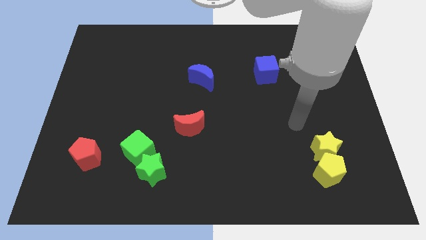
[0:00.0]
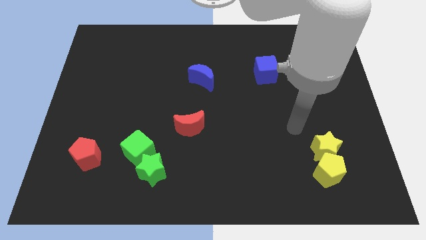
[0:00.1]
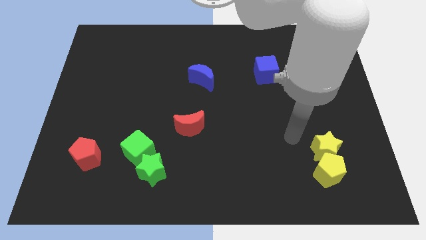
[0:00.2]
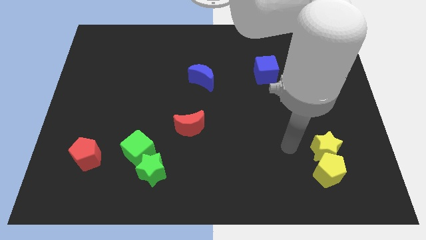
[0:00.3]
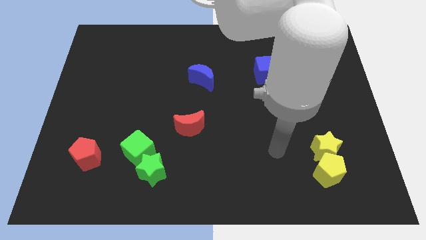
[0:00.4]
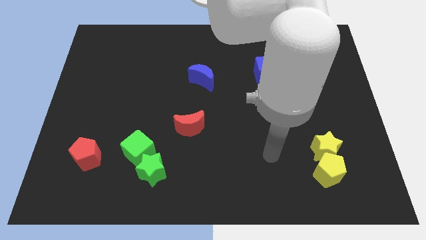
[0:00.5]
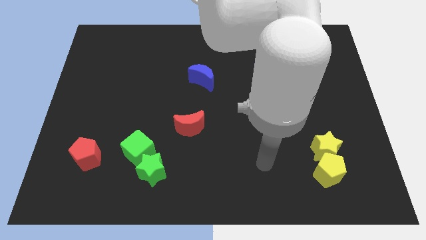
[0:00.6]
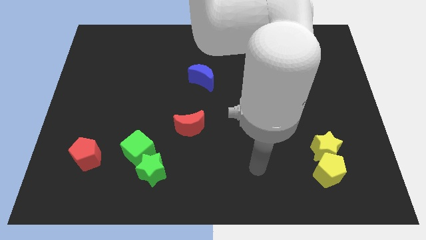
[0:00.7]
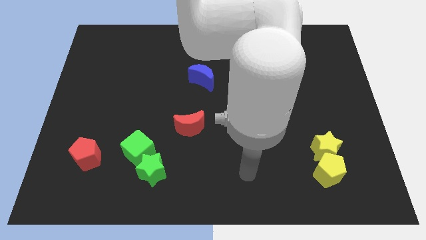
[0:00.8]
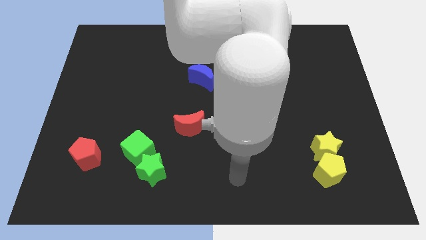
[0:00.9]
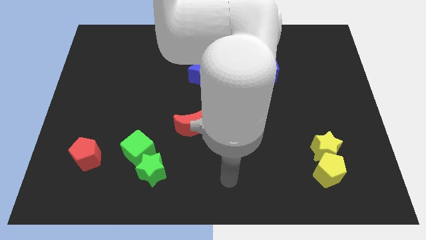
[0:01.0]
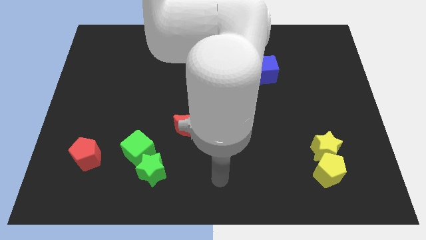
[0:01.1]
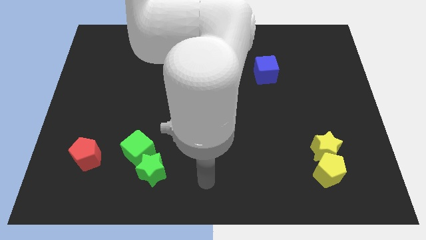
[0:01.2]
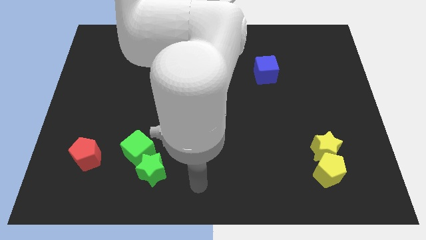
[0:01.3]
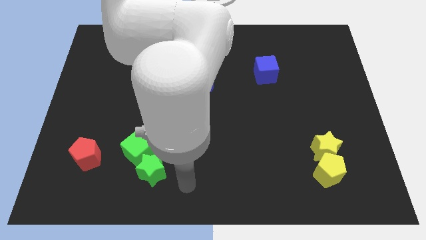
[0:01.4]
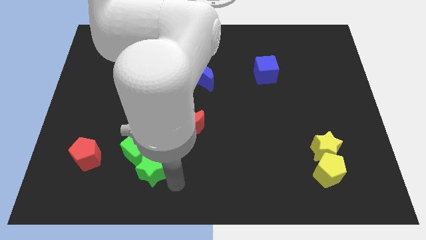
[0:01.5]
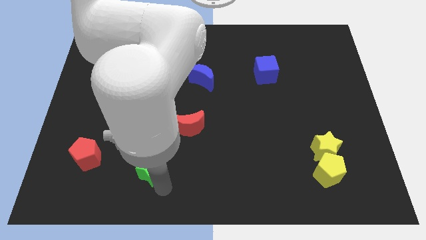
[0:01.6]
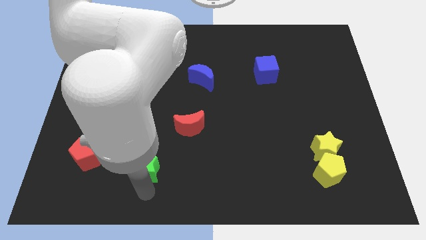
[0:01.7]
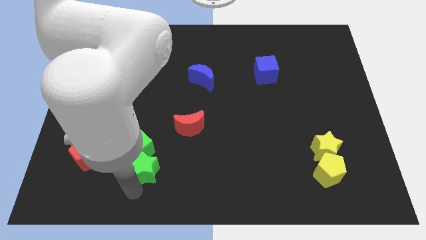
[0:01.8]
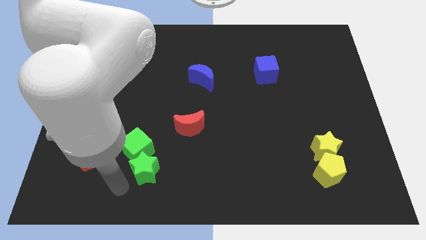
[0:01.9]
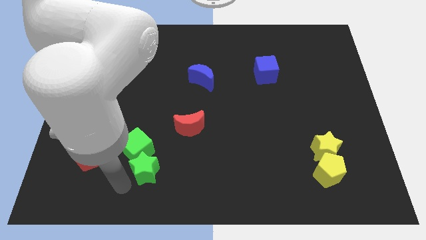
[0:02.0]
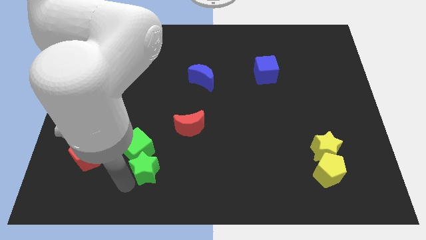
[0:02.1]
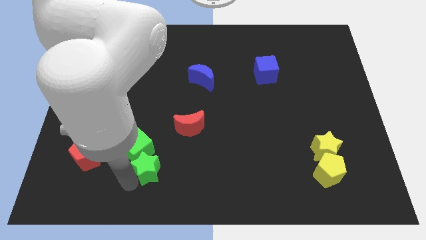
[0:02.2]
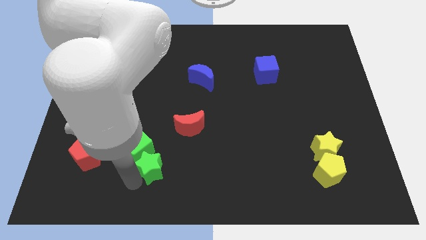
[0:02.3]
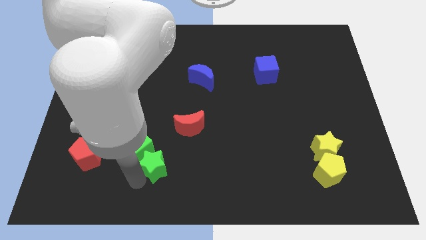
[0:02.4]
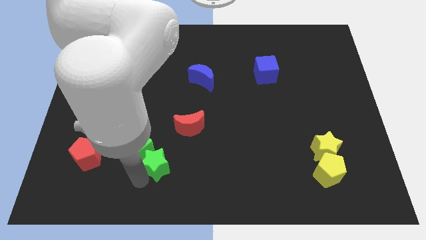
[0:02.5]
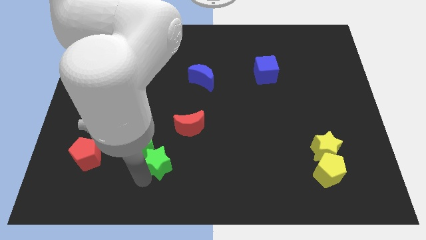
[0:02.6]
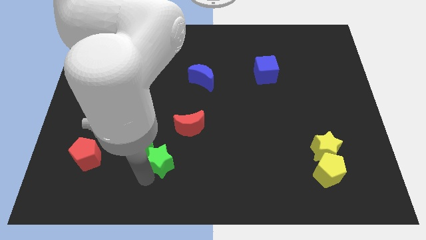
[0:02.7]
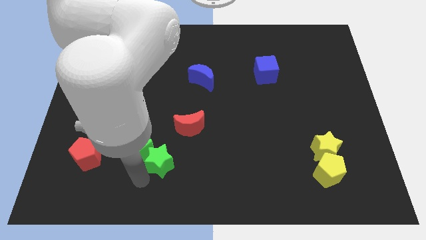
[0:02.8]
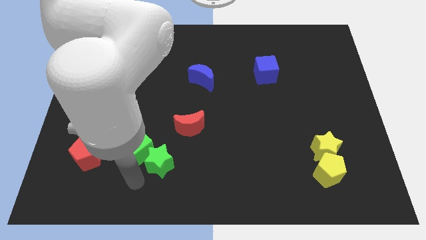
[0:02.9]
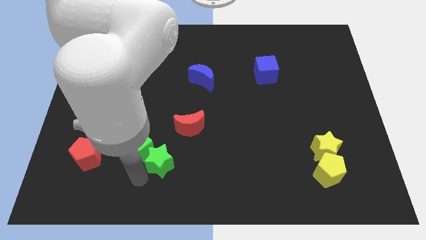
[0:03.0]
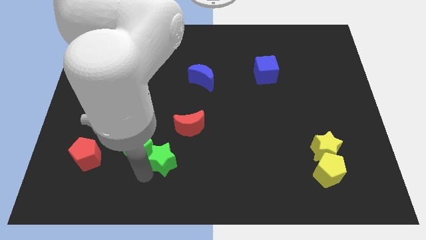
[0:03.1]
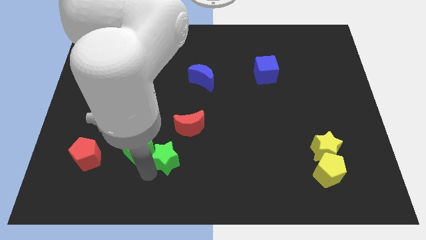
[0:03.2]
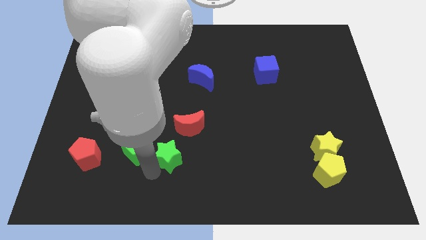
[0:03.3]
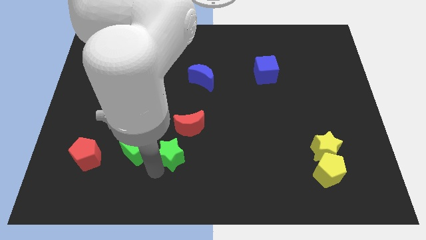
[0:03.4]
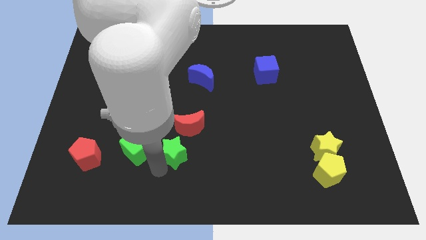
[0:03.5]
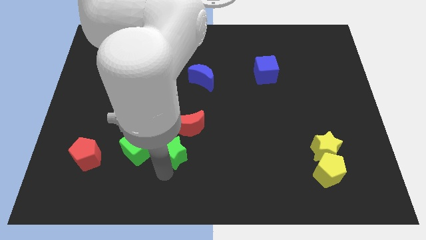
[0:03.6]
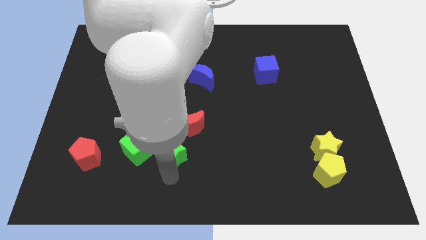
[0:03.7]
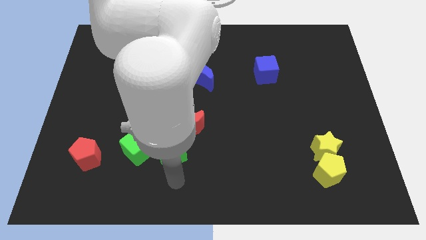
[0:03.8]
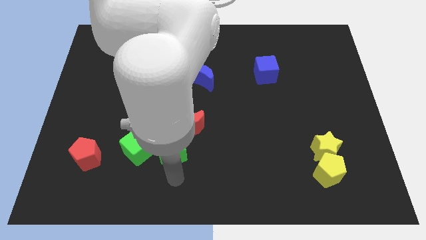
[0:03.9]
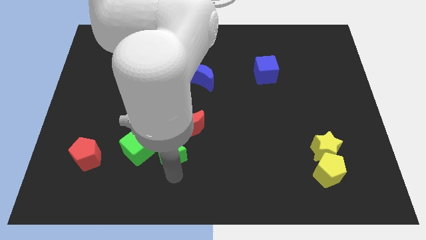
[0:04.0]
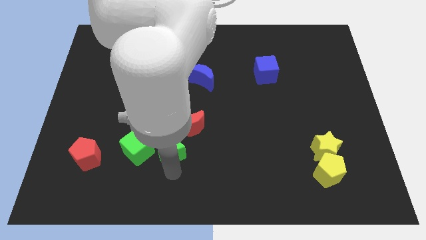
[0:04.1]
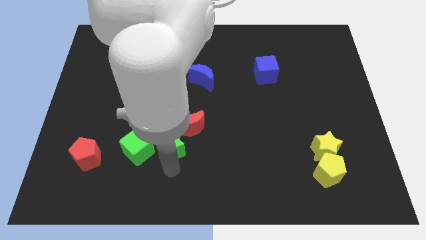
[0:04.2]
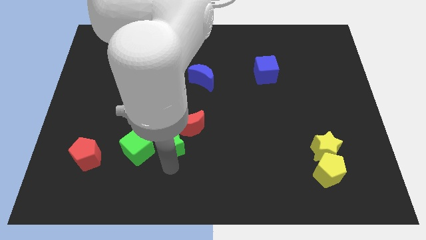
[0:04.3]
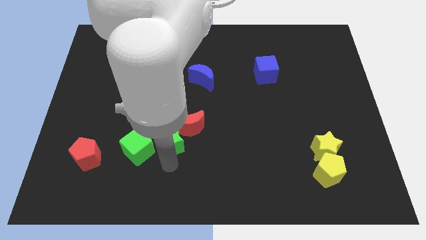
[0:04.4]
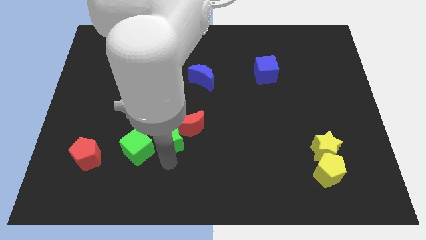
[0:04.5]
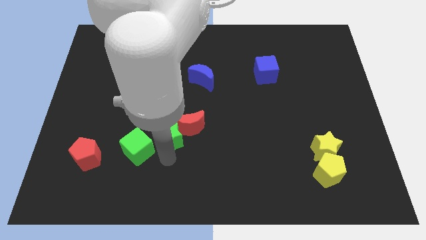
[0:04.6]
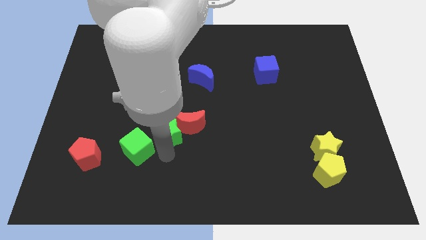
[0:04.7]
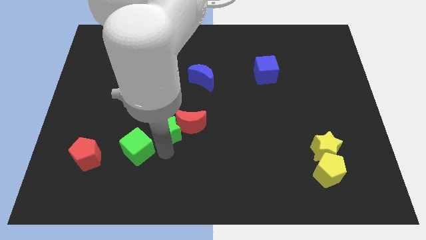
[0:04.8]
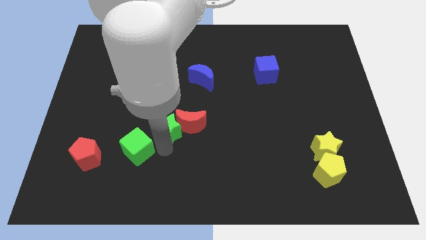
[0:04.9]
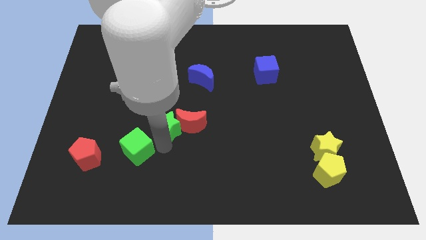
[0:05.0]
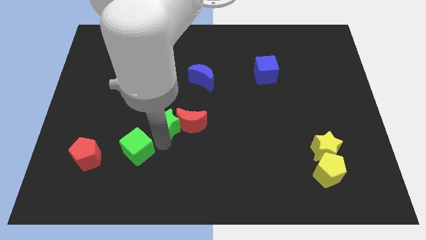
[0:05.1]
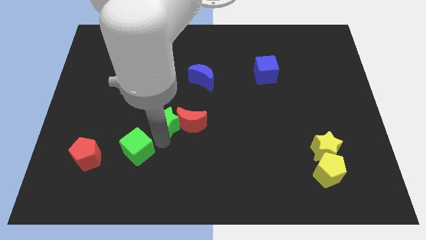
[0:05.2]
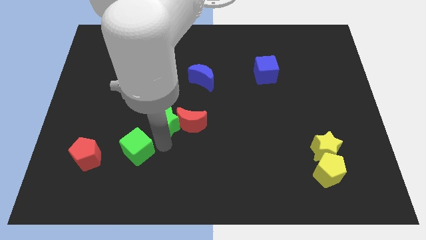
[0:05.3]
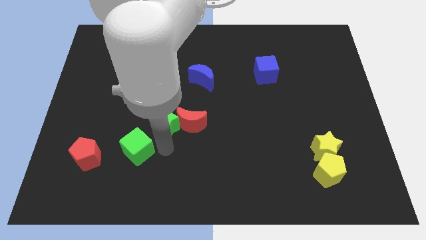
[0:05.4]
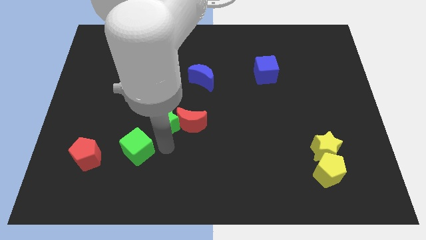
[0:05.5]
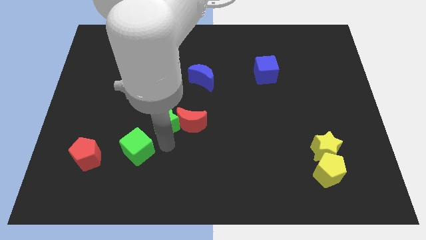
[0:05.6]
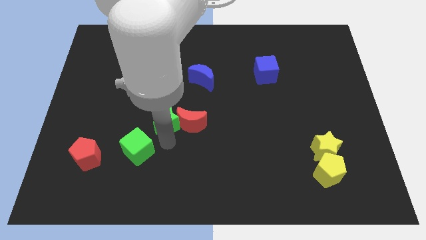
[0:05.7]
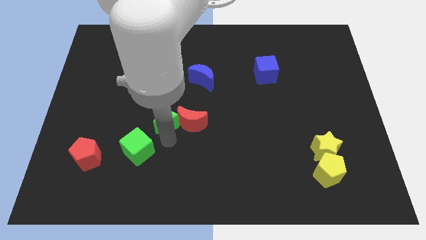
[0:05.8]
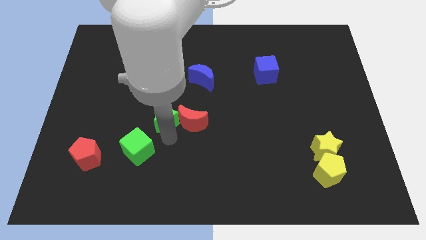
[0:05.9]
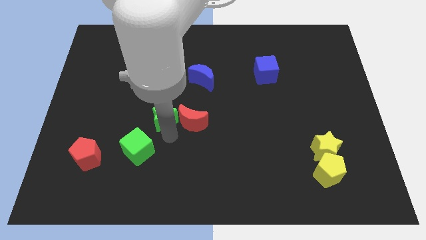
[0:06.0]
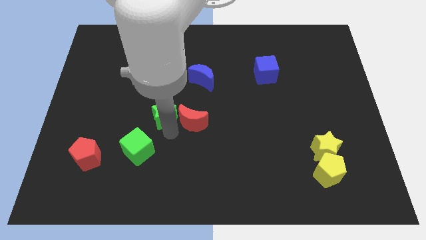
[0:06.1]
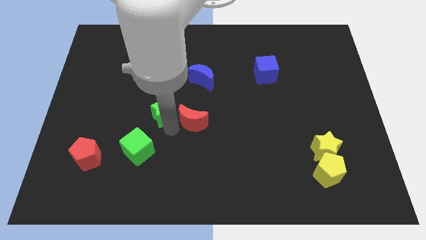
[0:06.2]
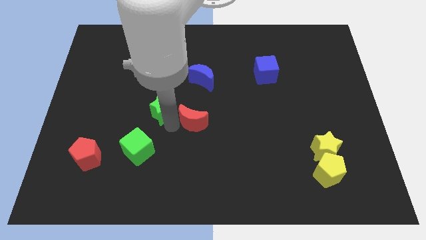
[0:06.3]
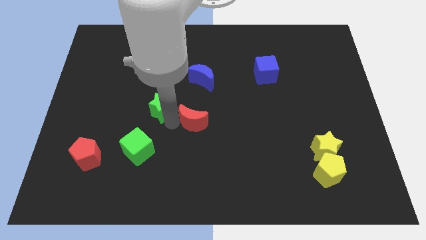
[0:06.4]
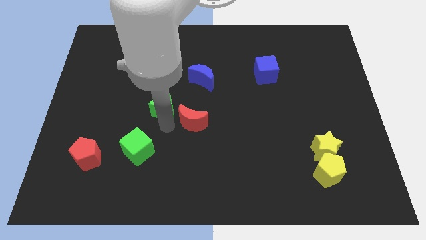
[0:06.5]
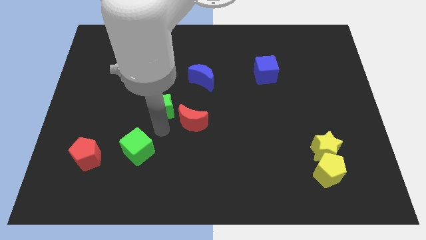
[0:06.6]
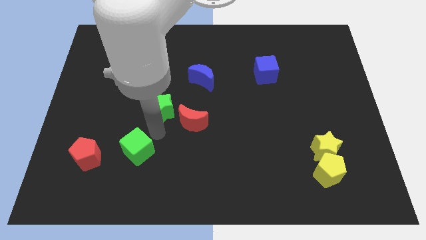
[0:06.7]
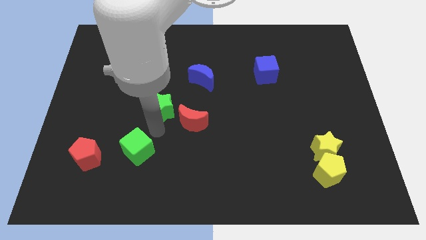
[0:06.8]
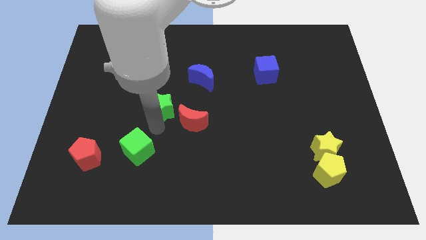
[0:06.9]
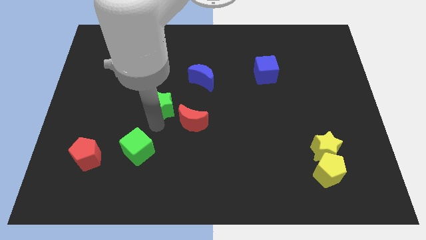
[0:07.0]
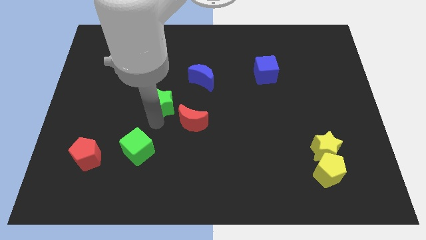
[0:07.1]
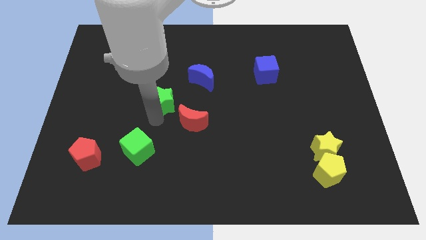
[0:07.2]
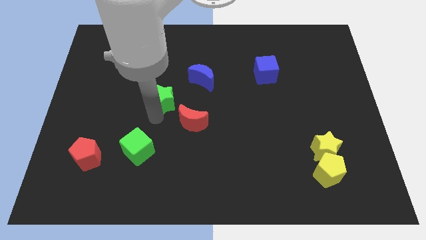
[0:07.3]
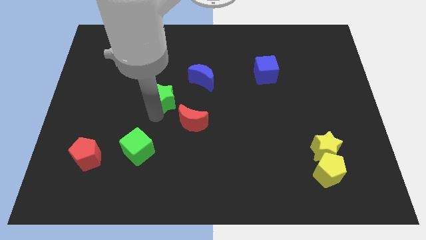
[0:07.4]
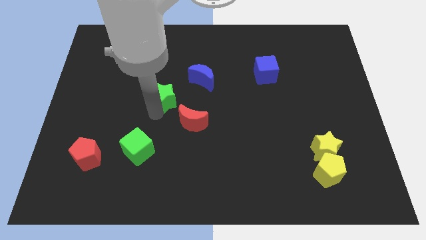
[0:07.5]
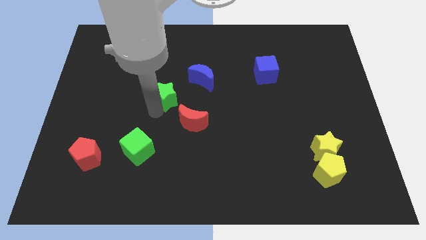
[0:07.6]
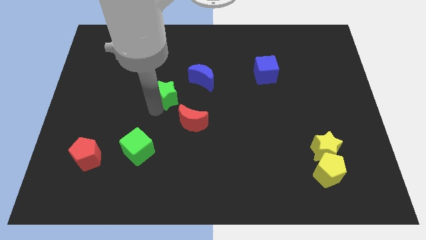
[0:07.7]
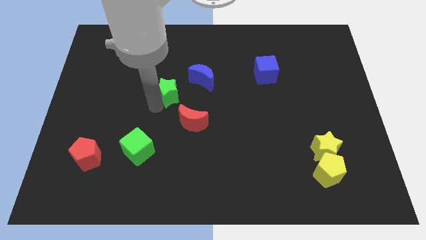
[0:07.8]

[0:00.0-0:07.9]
move the green star up

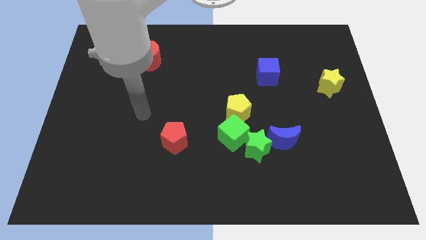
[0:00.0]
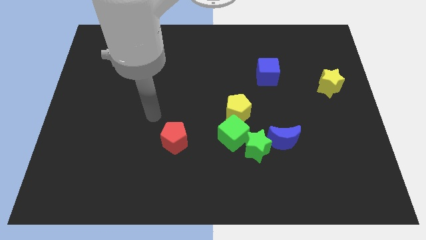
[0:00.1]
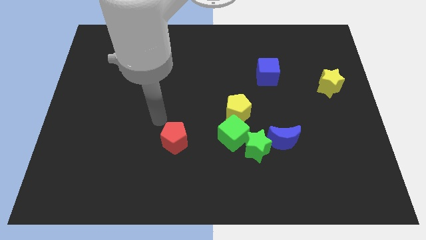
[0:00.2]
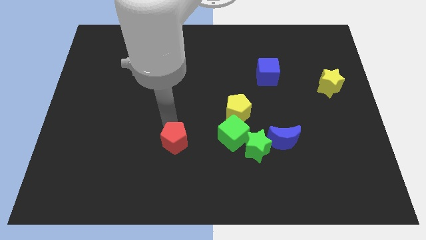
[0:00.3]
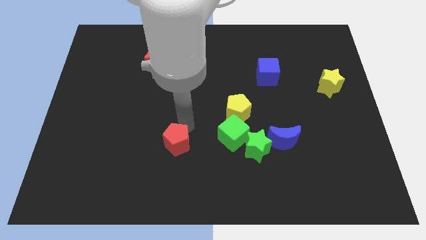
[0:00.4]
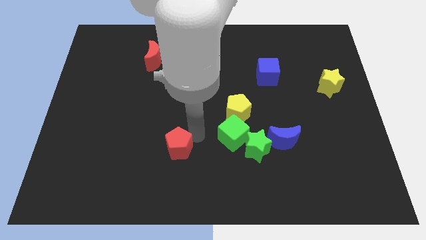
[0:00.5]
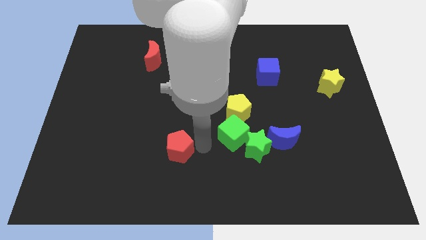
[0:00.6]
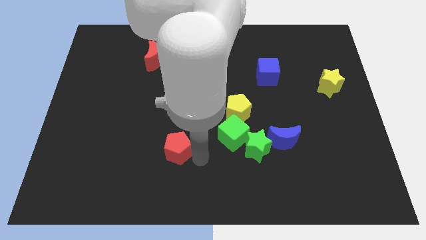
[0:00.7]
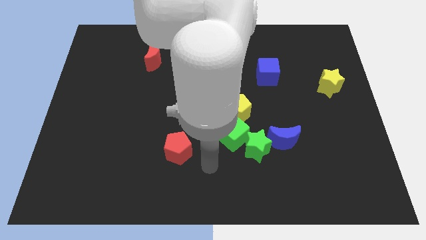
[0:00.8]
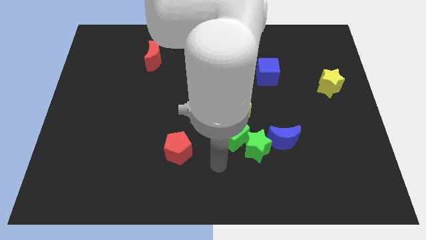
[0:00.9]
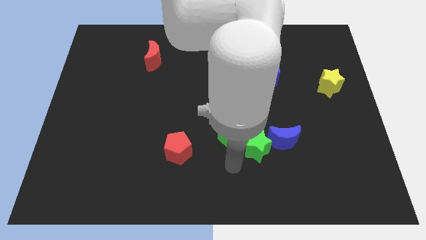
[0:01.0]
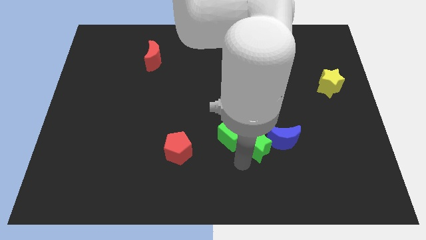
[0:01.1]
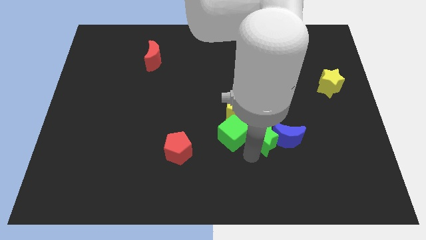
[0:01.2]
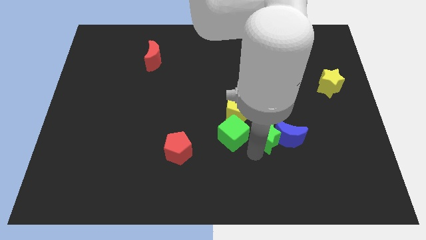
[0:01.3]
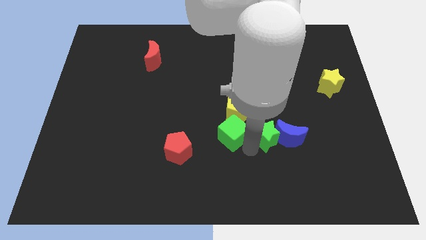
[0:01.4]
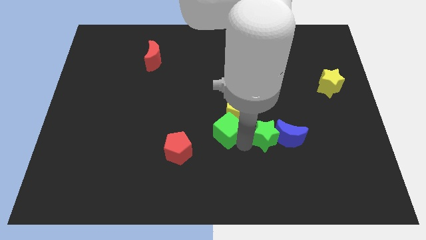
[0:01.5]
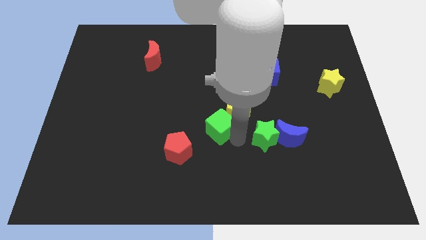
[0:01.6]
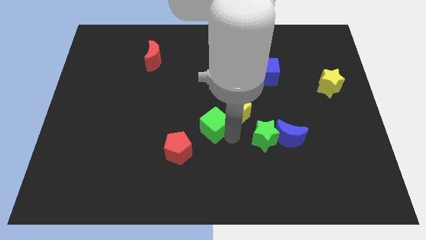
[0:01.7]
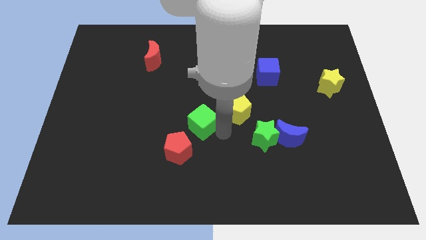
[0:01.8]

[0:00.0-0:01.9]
slightly slide the green cube up and to the left diagonally
